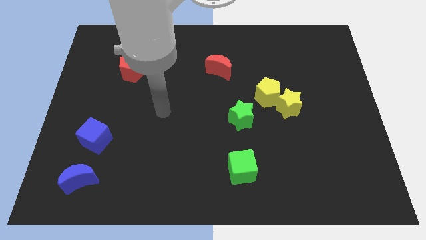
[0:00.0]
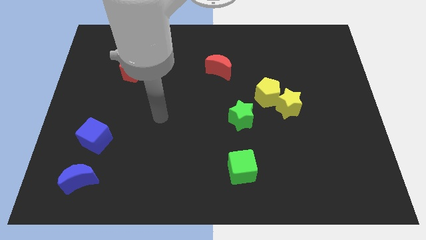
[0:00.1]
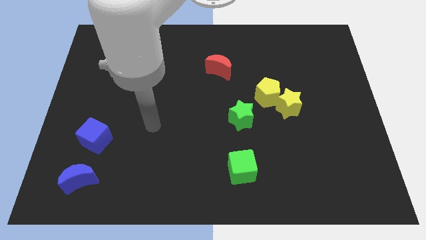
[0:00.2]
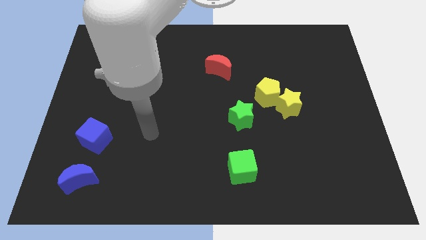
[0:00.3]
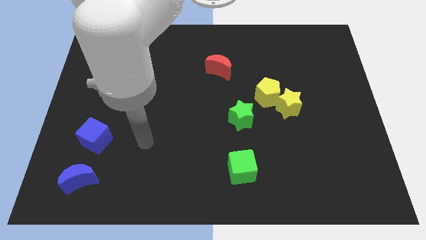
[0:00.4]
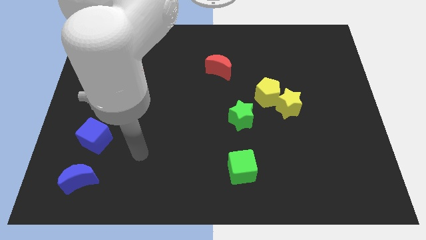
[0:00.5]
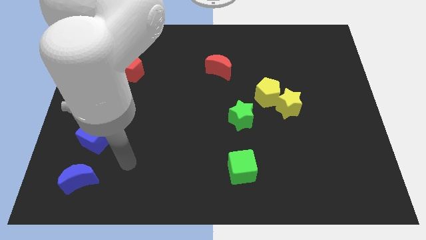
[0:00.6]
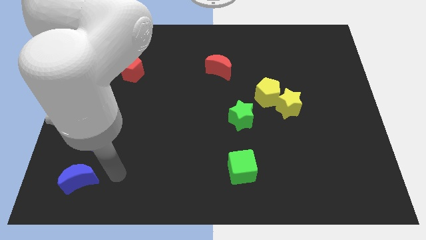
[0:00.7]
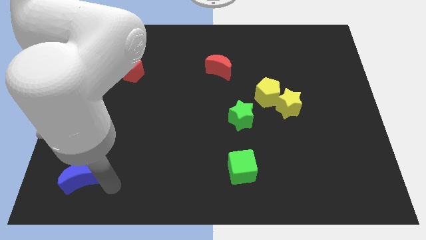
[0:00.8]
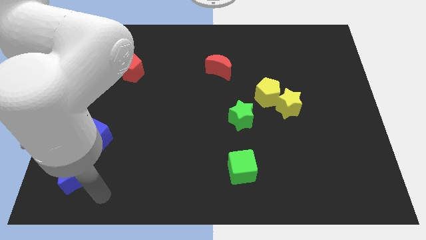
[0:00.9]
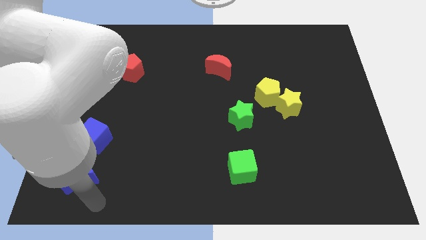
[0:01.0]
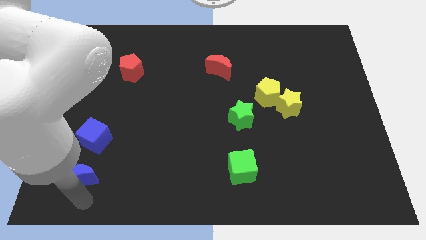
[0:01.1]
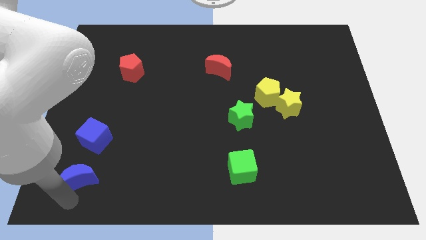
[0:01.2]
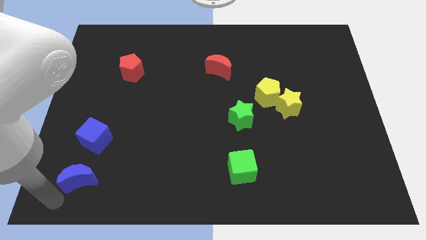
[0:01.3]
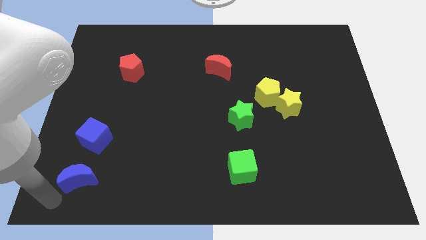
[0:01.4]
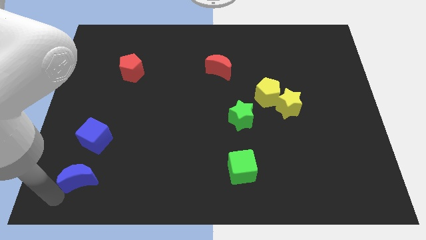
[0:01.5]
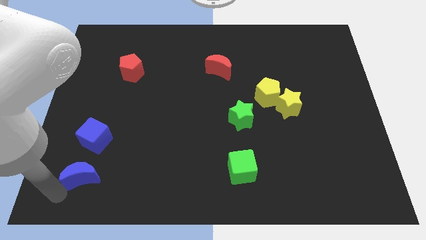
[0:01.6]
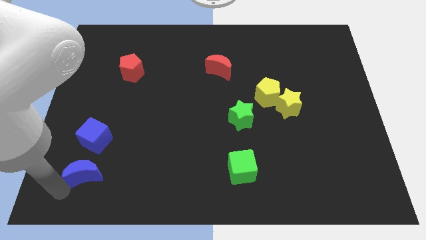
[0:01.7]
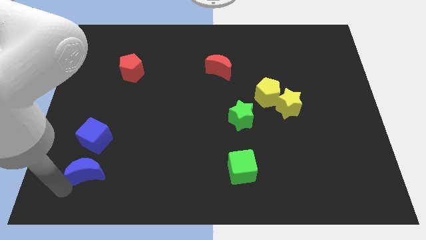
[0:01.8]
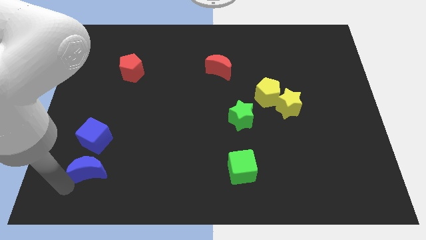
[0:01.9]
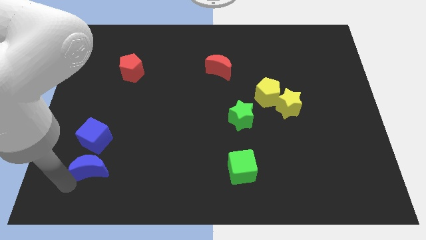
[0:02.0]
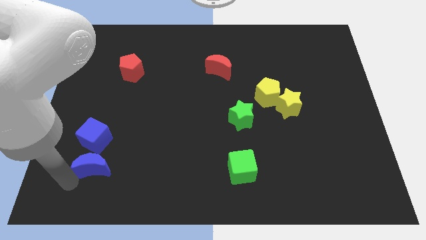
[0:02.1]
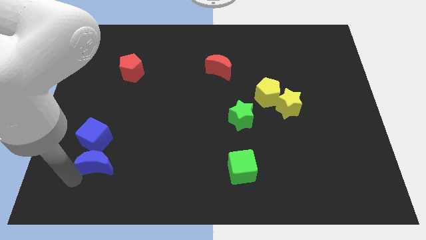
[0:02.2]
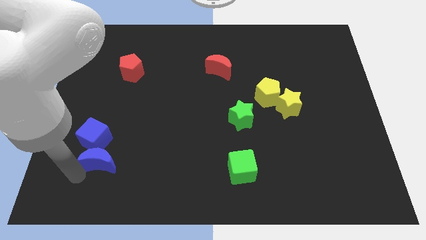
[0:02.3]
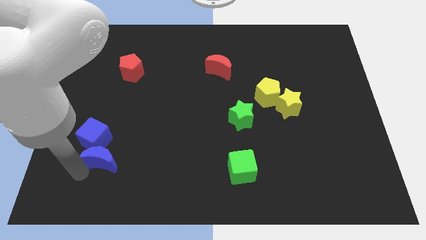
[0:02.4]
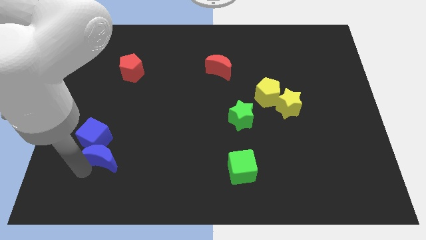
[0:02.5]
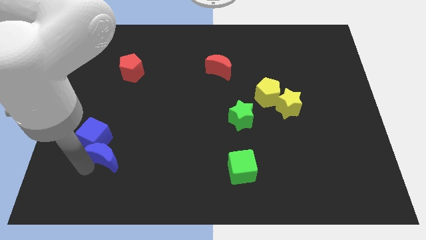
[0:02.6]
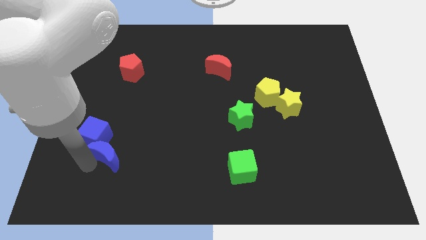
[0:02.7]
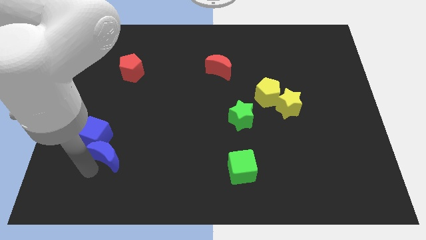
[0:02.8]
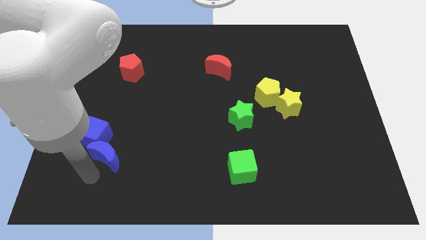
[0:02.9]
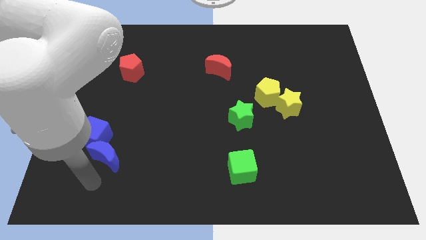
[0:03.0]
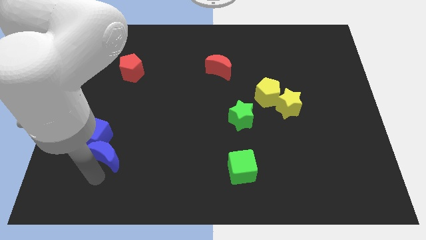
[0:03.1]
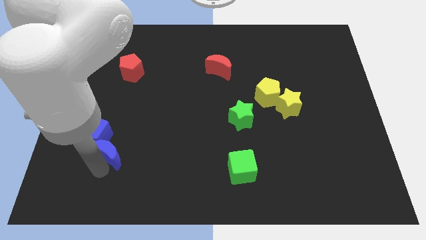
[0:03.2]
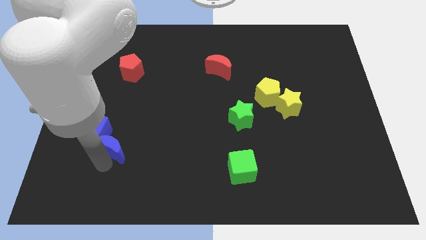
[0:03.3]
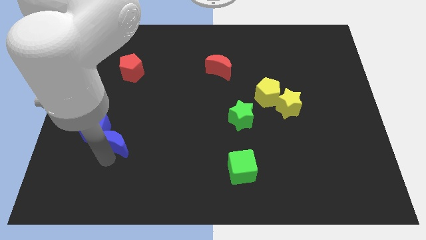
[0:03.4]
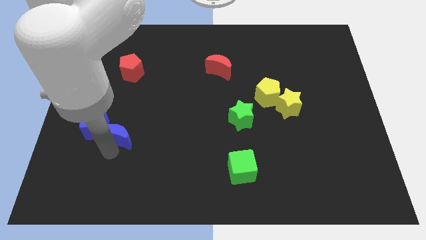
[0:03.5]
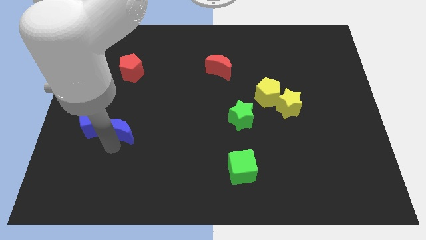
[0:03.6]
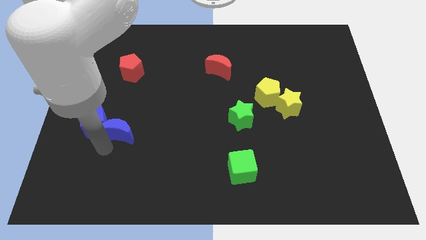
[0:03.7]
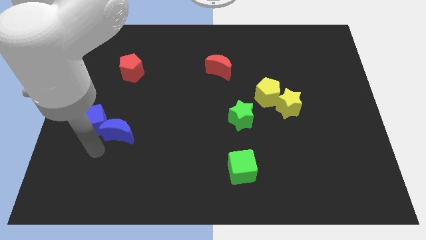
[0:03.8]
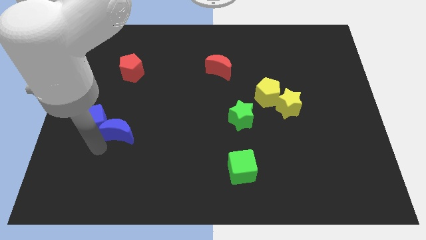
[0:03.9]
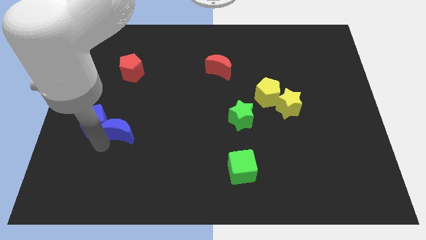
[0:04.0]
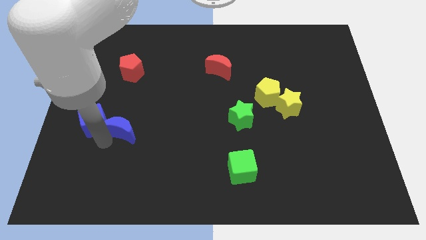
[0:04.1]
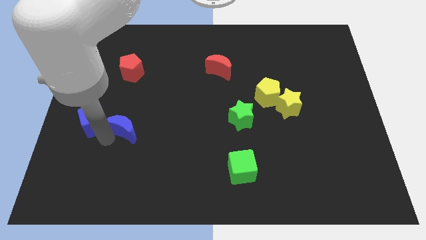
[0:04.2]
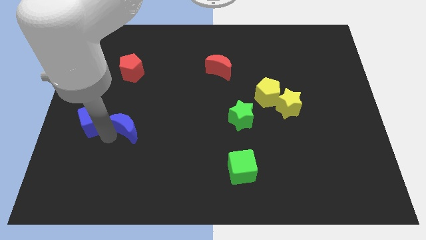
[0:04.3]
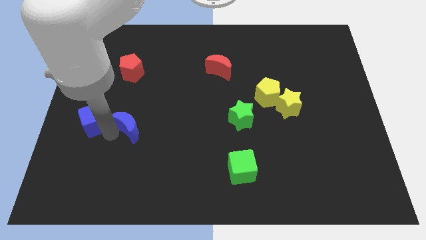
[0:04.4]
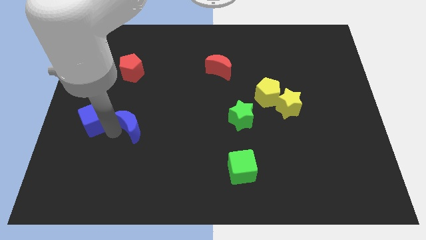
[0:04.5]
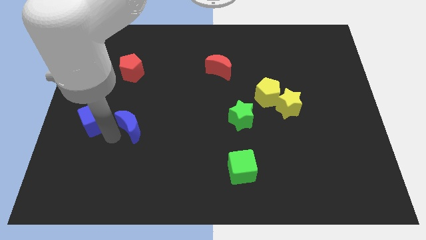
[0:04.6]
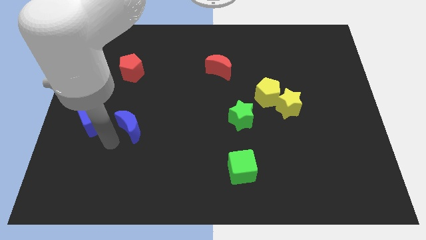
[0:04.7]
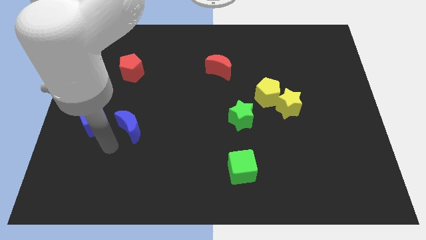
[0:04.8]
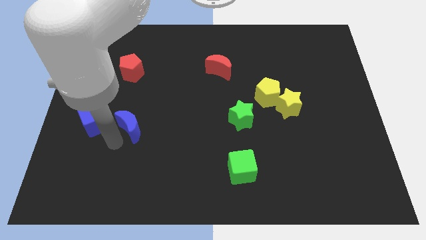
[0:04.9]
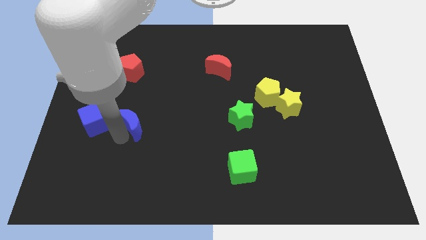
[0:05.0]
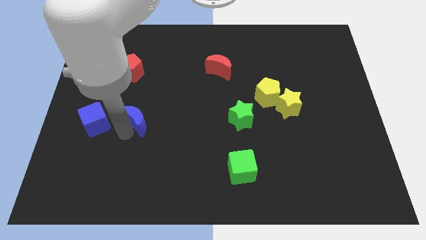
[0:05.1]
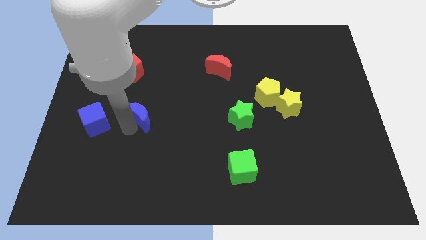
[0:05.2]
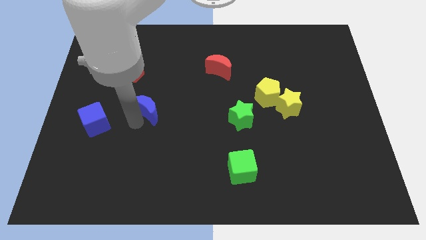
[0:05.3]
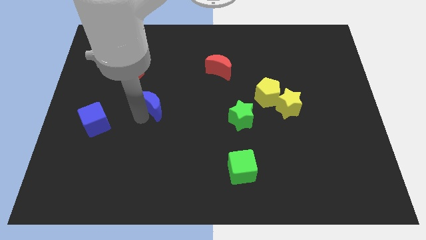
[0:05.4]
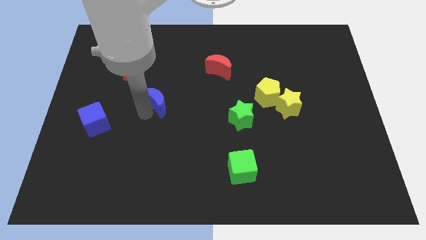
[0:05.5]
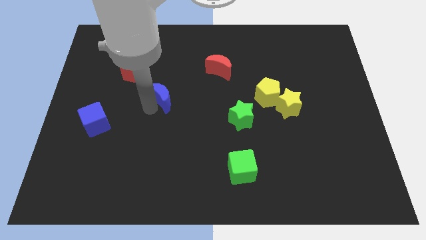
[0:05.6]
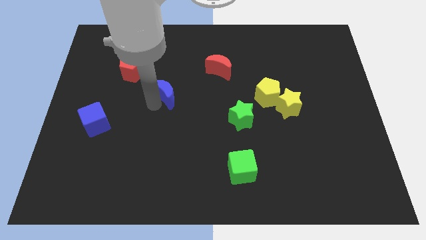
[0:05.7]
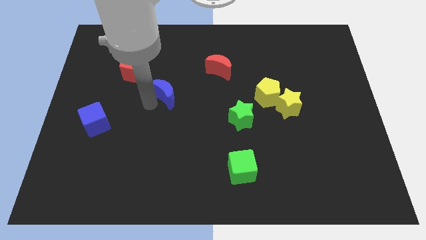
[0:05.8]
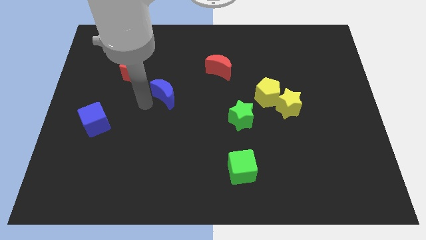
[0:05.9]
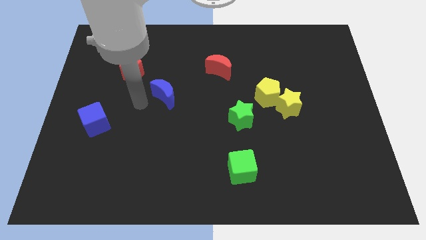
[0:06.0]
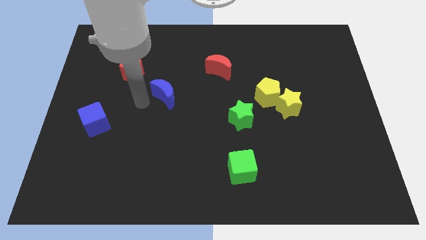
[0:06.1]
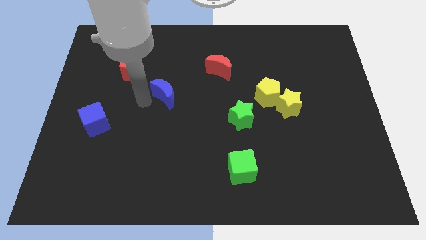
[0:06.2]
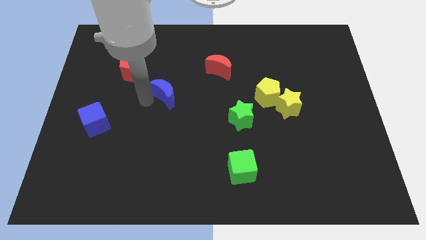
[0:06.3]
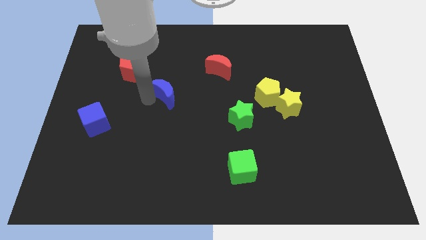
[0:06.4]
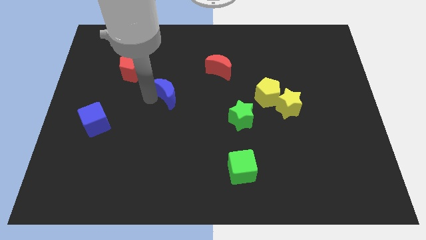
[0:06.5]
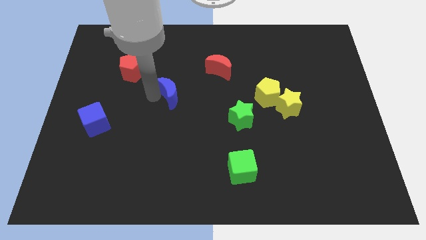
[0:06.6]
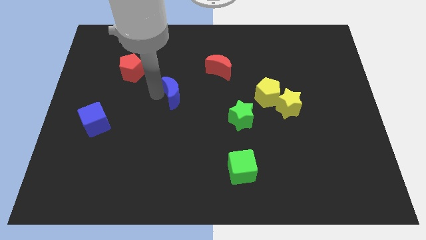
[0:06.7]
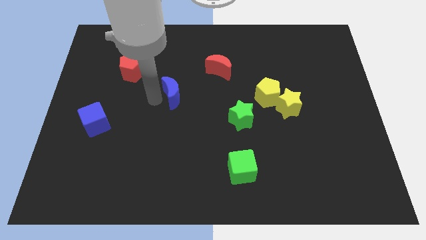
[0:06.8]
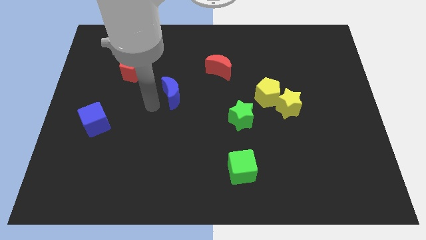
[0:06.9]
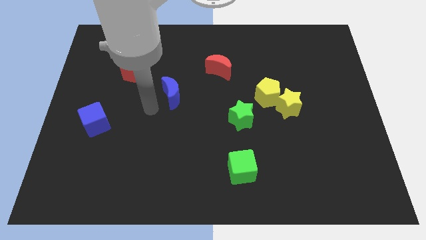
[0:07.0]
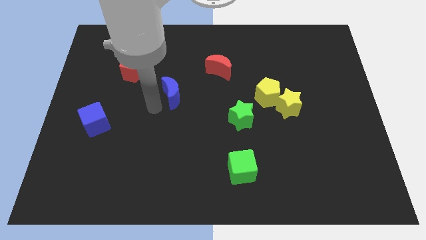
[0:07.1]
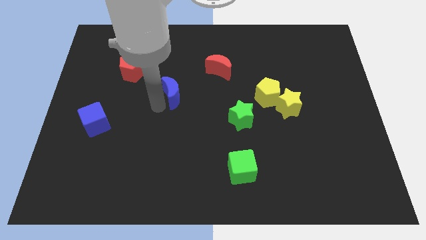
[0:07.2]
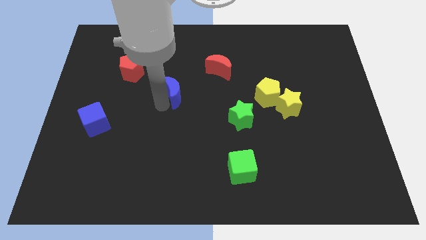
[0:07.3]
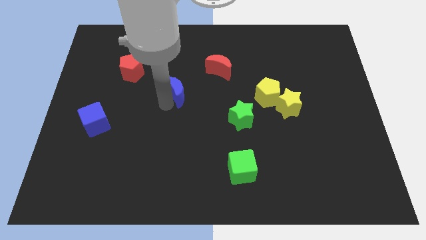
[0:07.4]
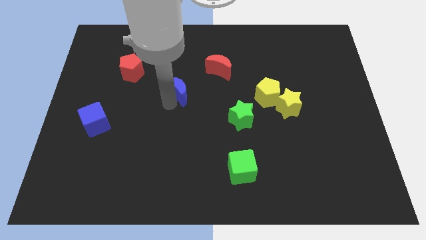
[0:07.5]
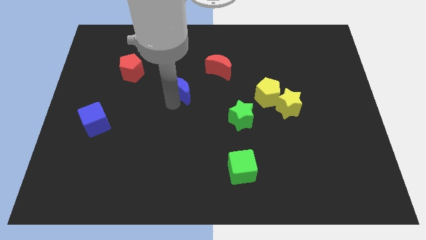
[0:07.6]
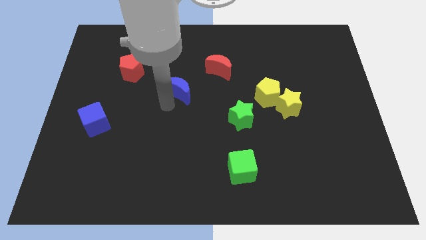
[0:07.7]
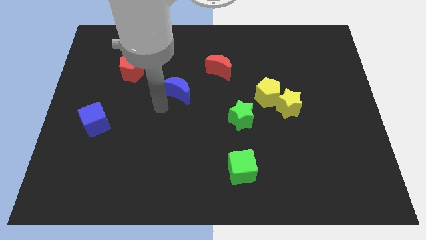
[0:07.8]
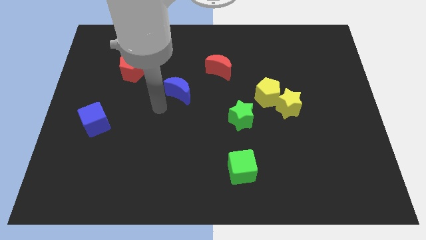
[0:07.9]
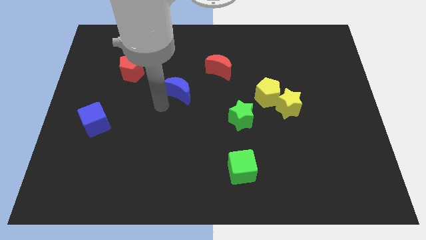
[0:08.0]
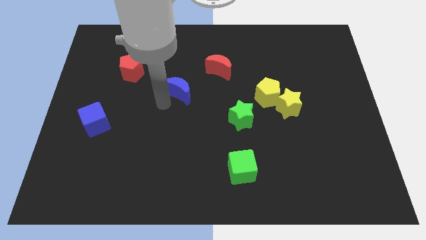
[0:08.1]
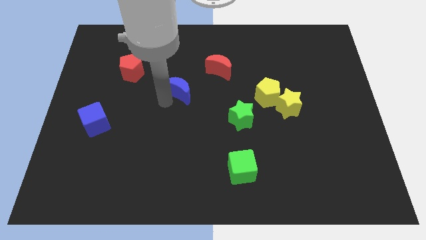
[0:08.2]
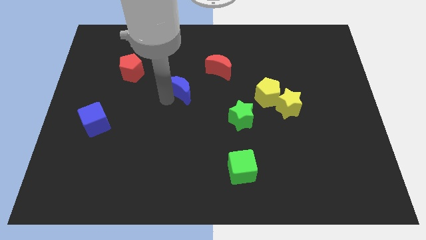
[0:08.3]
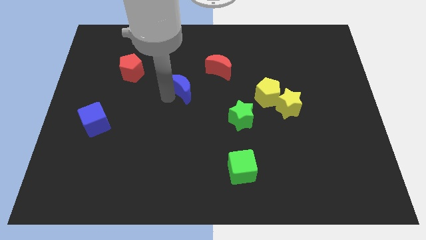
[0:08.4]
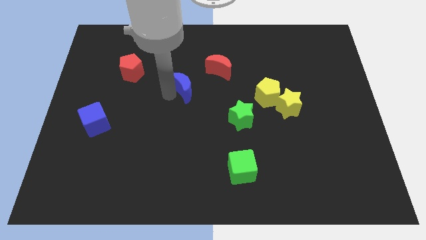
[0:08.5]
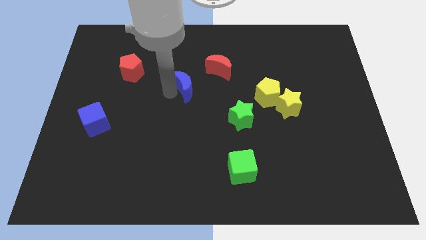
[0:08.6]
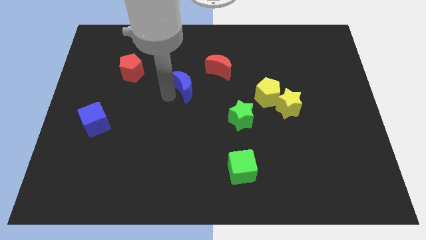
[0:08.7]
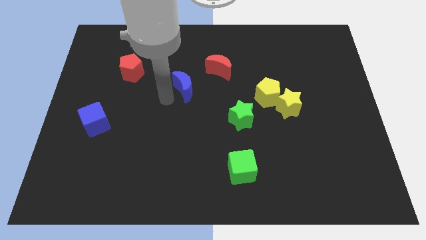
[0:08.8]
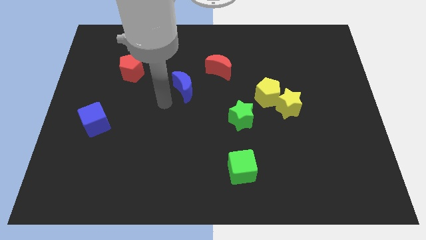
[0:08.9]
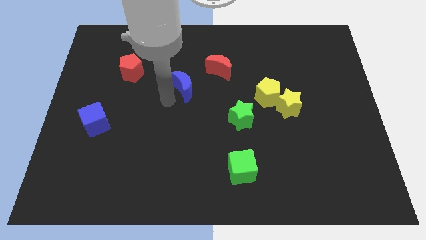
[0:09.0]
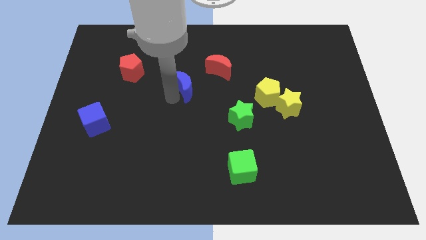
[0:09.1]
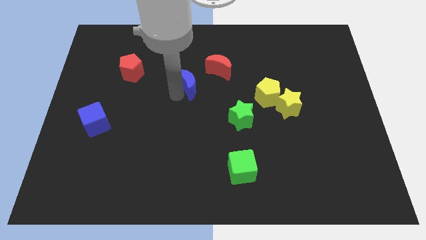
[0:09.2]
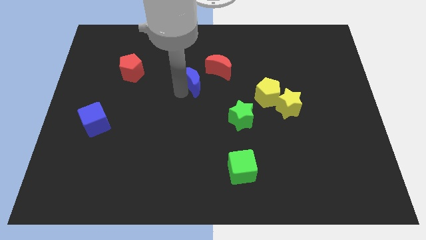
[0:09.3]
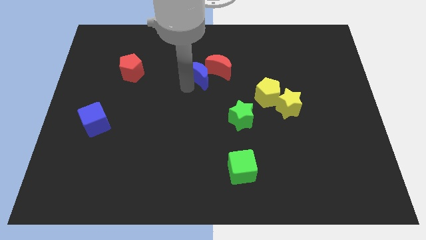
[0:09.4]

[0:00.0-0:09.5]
move the blue moon next to the red moon
